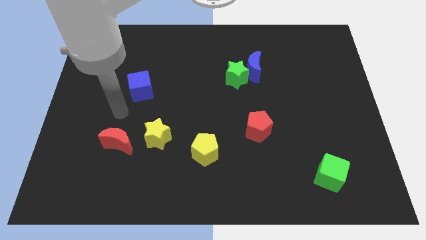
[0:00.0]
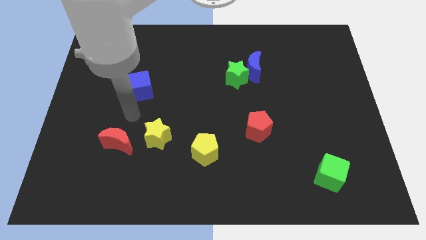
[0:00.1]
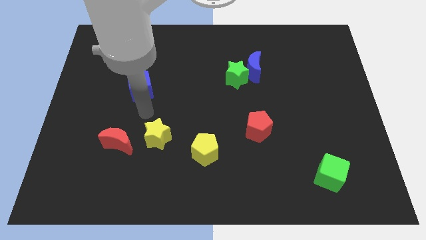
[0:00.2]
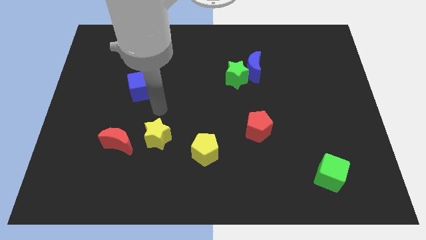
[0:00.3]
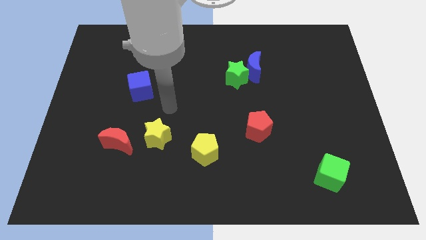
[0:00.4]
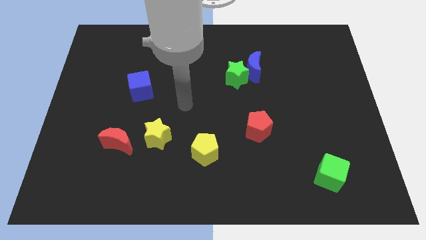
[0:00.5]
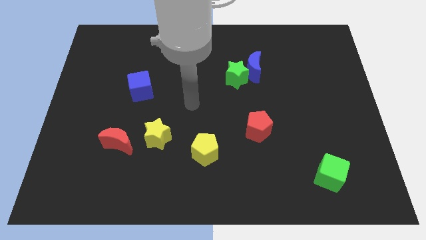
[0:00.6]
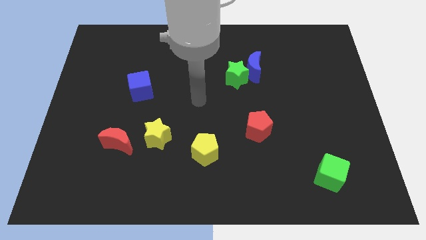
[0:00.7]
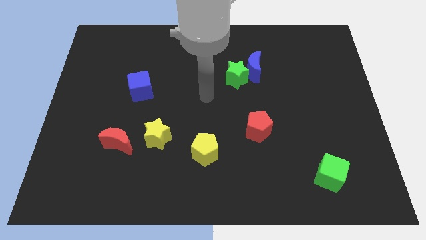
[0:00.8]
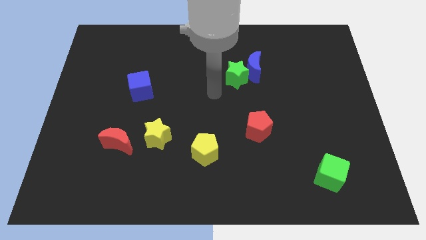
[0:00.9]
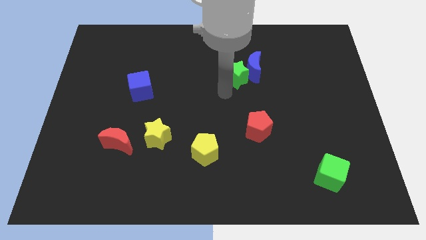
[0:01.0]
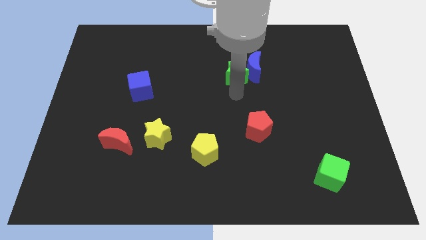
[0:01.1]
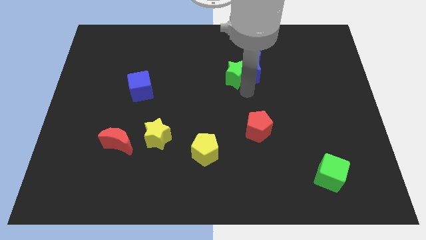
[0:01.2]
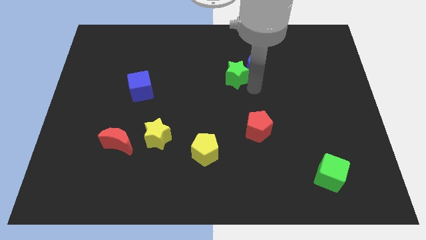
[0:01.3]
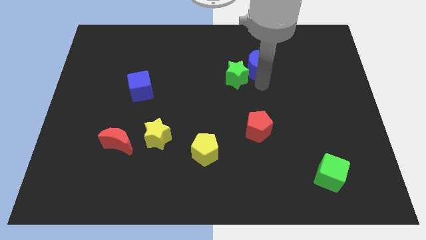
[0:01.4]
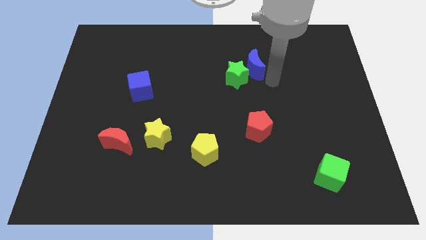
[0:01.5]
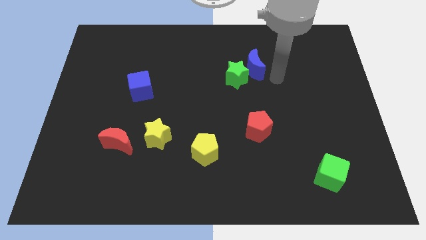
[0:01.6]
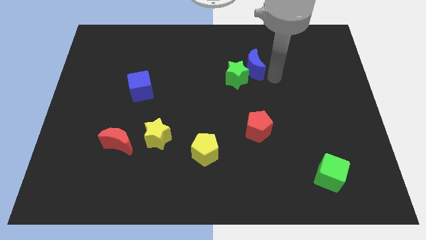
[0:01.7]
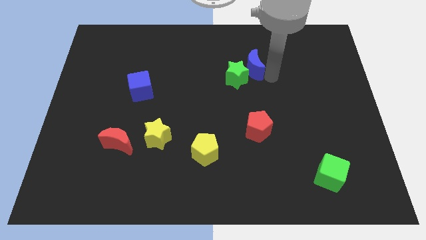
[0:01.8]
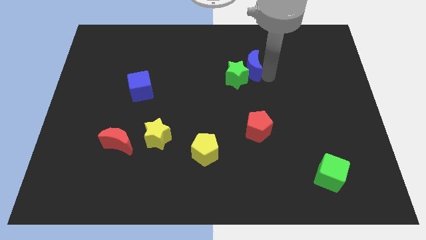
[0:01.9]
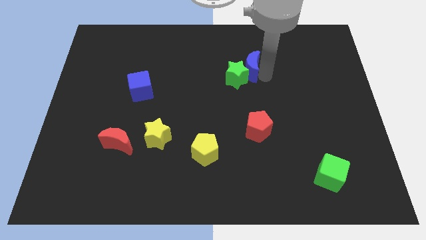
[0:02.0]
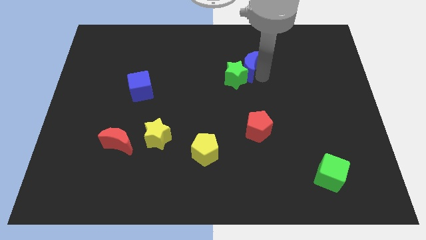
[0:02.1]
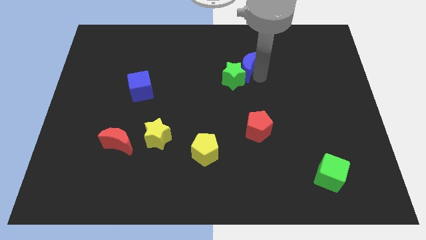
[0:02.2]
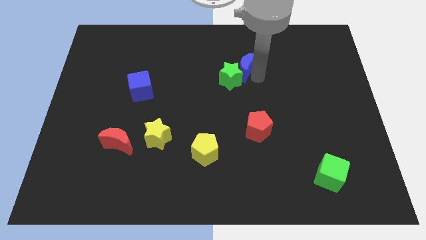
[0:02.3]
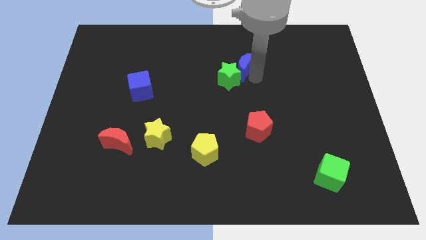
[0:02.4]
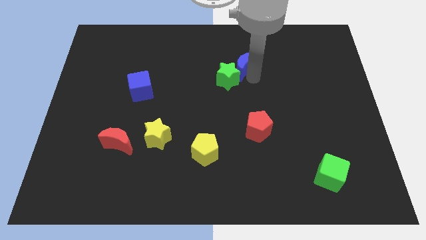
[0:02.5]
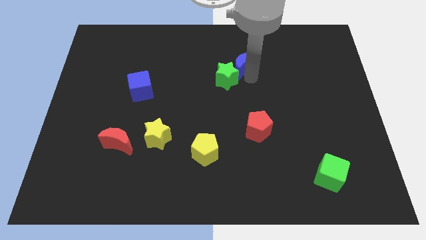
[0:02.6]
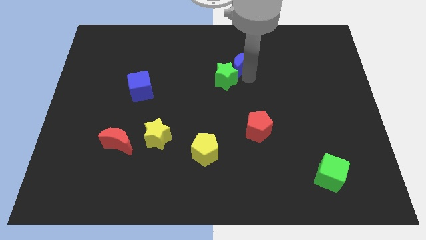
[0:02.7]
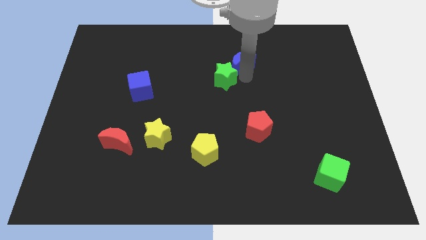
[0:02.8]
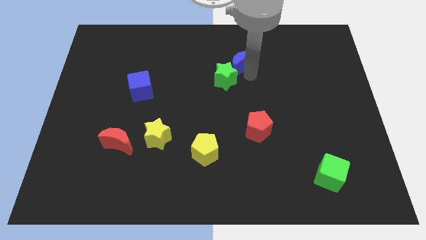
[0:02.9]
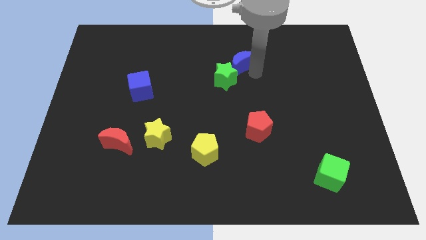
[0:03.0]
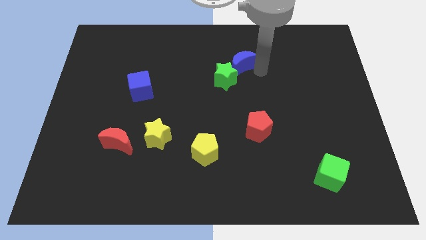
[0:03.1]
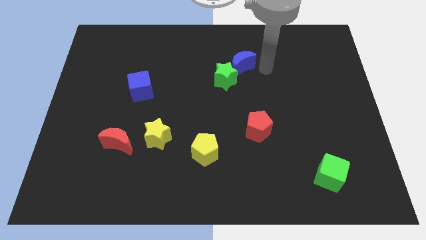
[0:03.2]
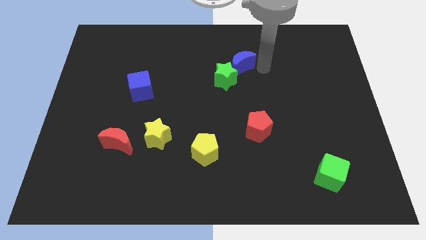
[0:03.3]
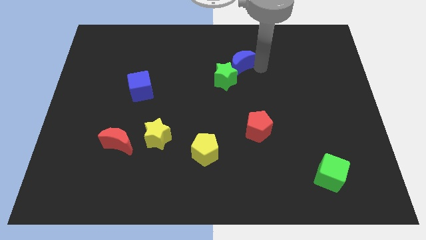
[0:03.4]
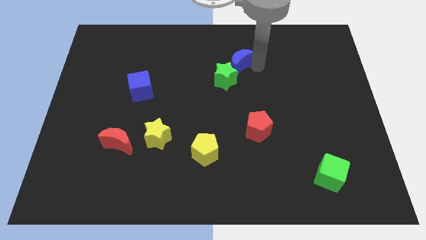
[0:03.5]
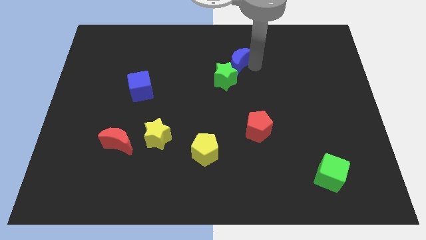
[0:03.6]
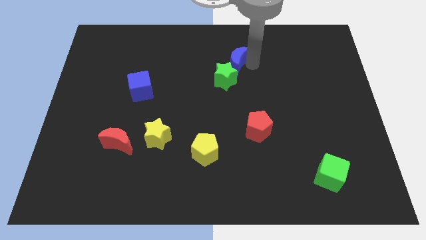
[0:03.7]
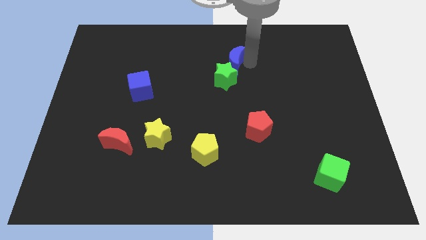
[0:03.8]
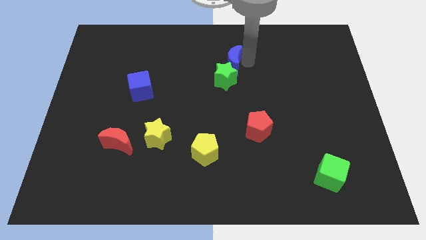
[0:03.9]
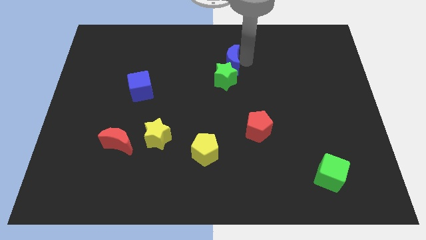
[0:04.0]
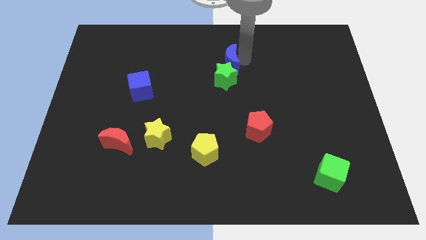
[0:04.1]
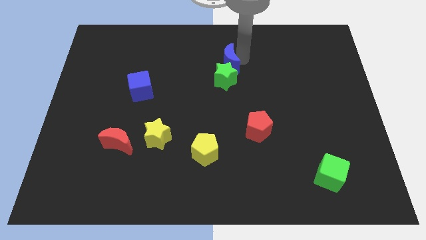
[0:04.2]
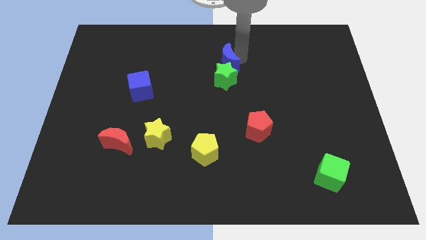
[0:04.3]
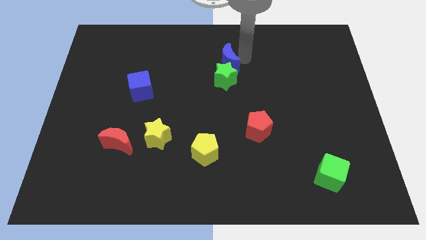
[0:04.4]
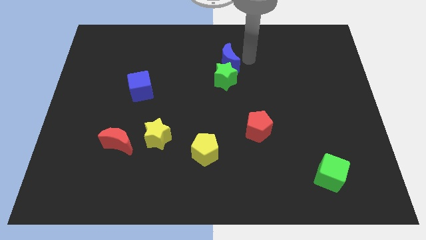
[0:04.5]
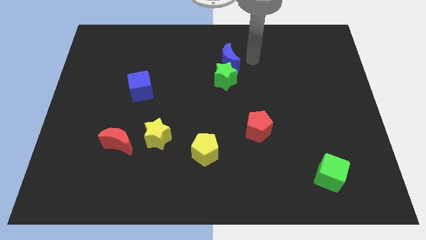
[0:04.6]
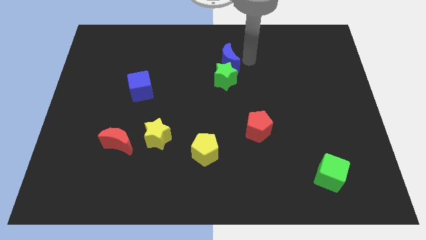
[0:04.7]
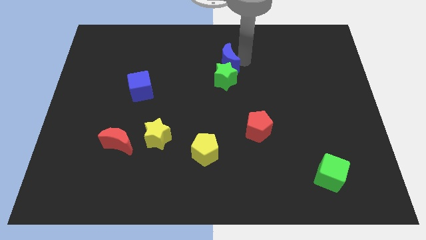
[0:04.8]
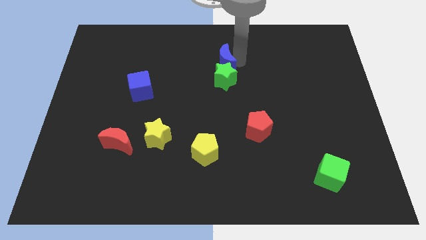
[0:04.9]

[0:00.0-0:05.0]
slightly move the blue moon left

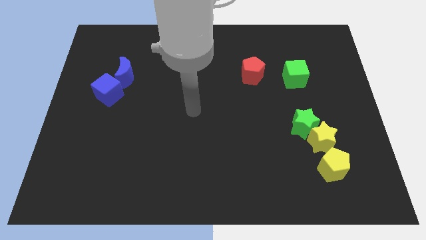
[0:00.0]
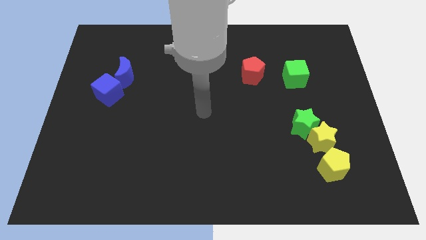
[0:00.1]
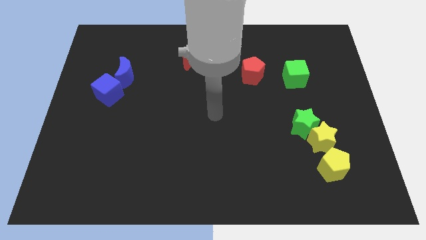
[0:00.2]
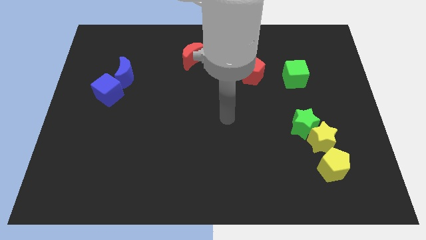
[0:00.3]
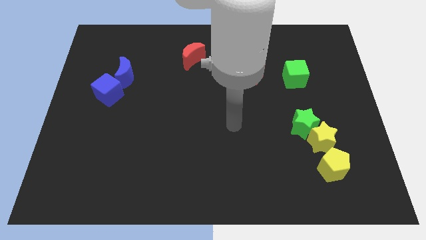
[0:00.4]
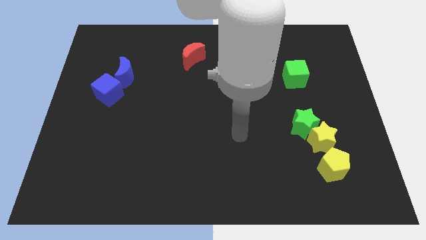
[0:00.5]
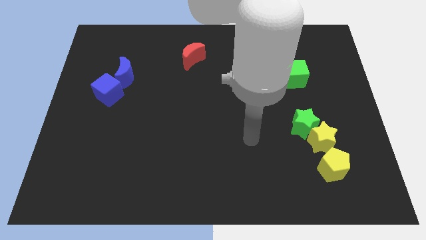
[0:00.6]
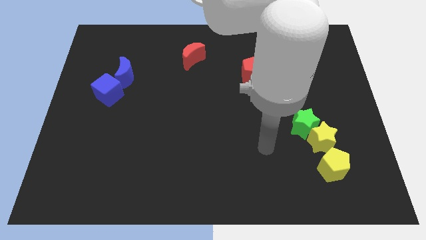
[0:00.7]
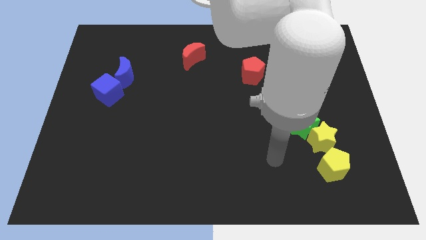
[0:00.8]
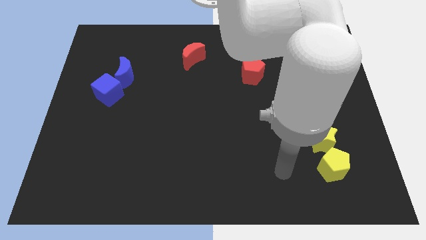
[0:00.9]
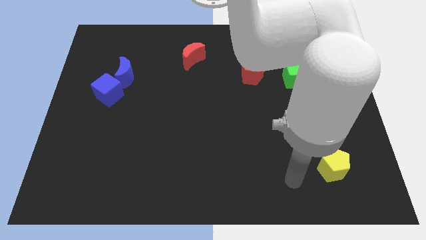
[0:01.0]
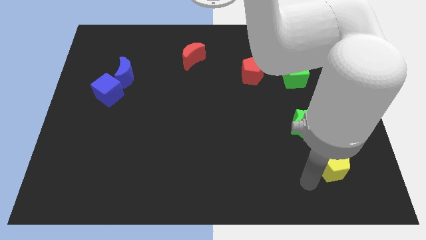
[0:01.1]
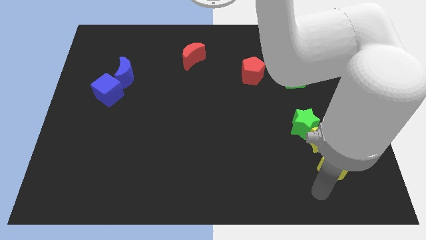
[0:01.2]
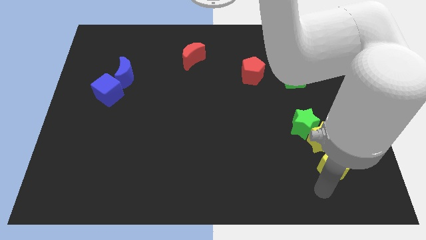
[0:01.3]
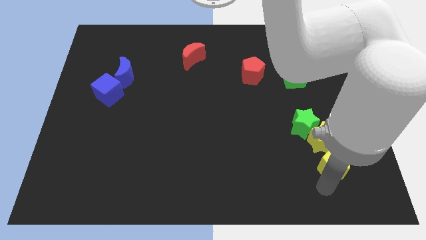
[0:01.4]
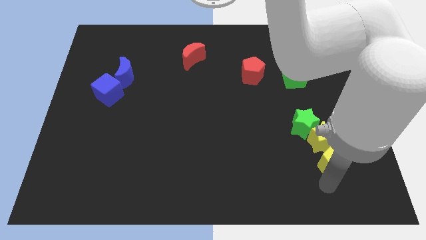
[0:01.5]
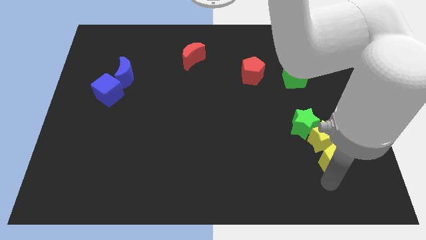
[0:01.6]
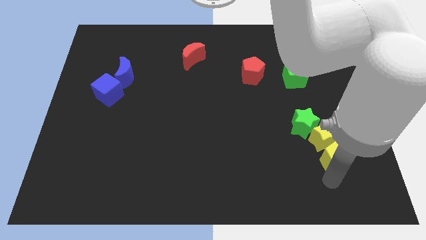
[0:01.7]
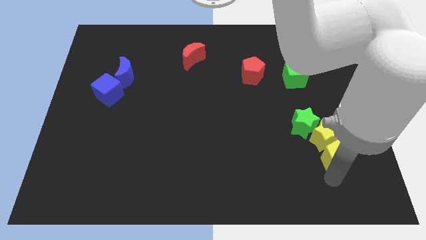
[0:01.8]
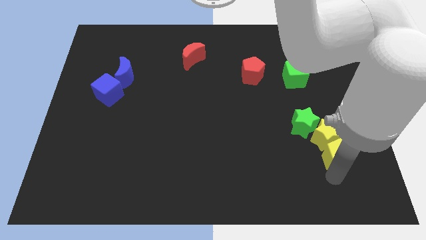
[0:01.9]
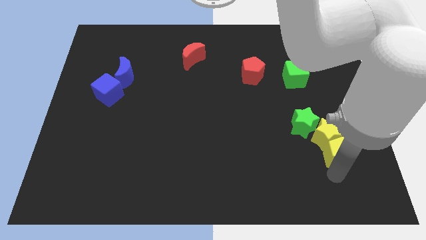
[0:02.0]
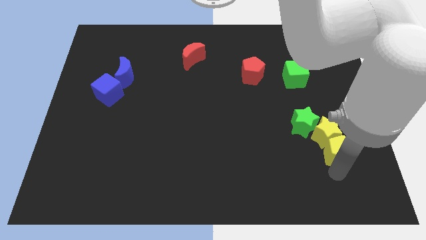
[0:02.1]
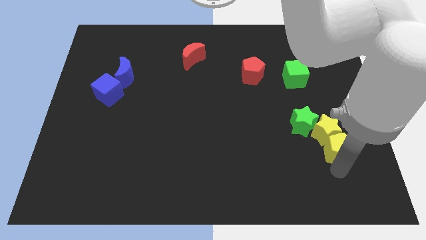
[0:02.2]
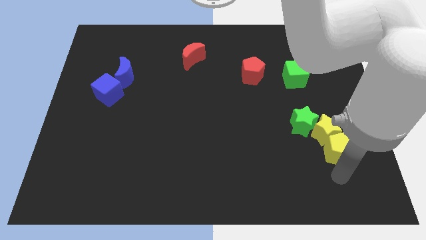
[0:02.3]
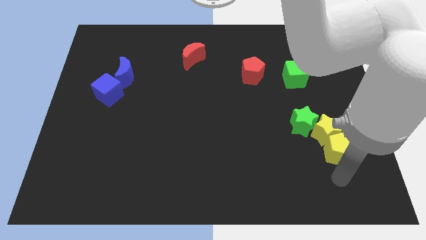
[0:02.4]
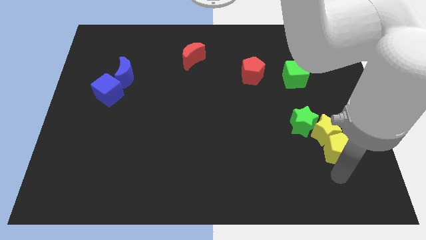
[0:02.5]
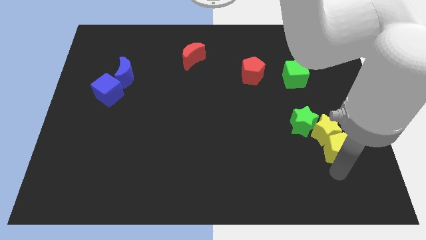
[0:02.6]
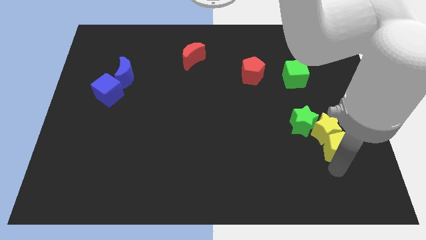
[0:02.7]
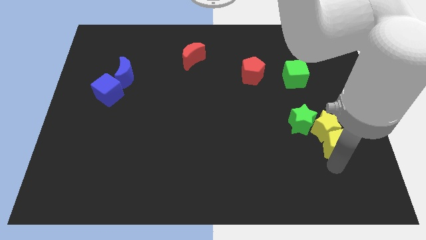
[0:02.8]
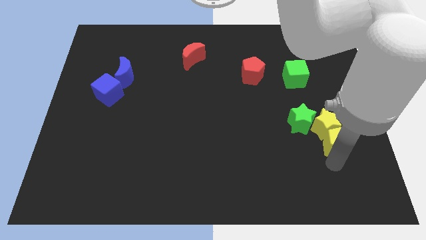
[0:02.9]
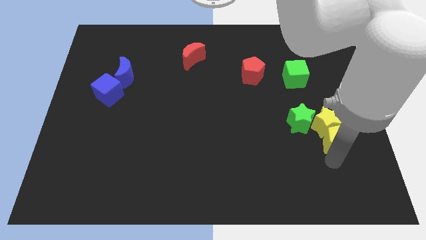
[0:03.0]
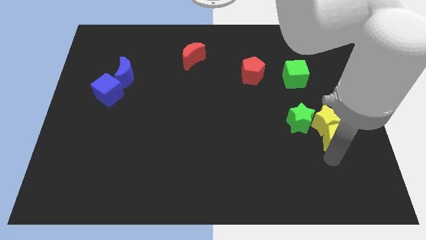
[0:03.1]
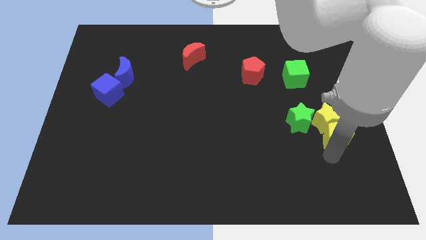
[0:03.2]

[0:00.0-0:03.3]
push the yellow pentagon a little bit up
